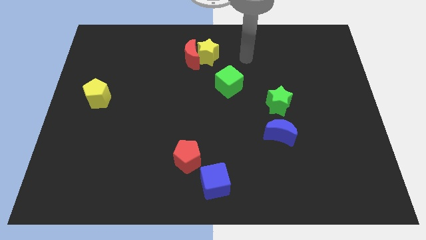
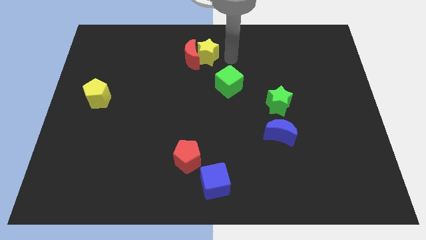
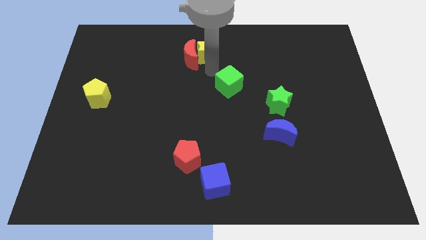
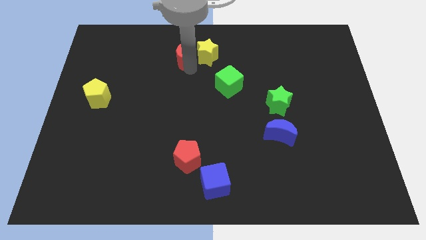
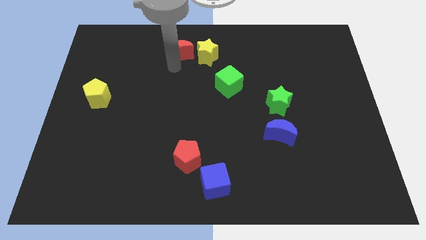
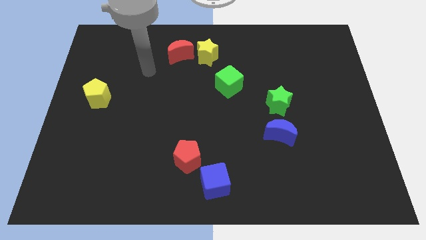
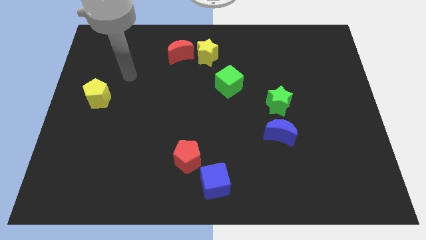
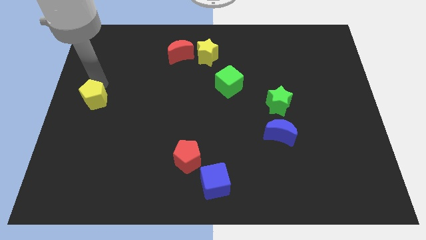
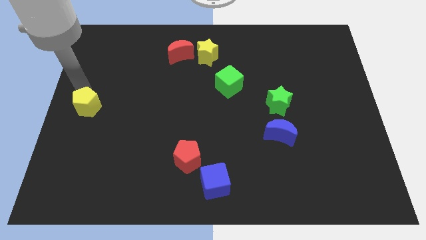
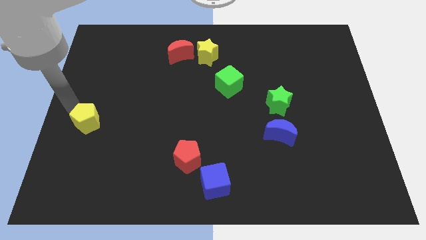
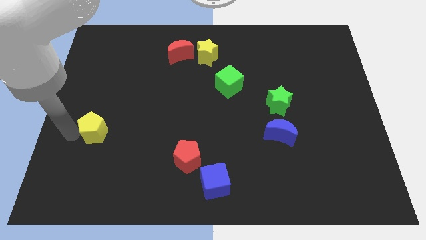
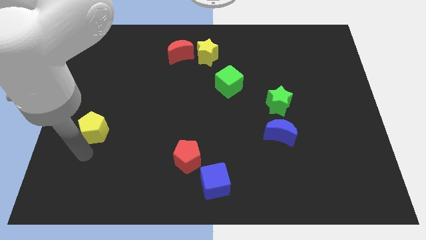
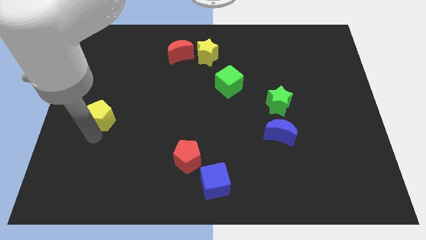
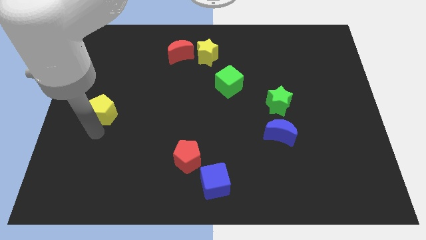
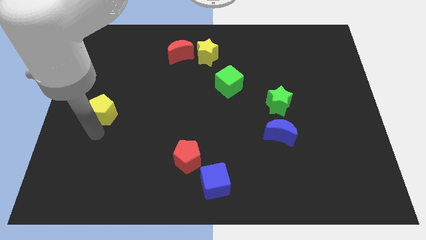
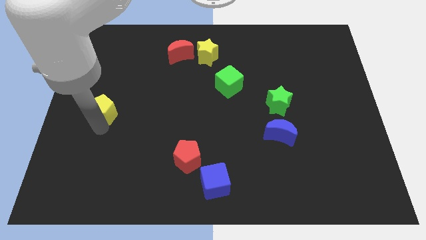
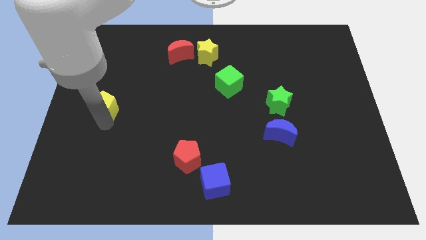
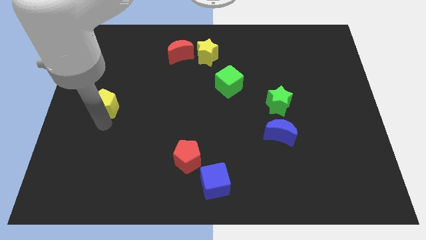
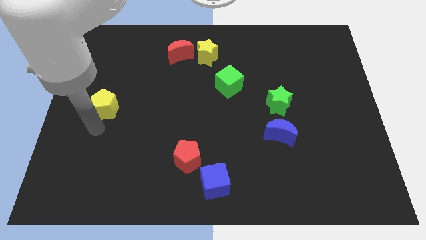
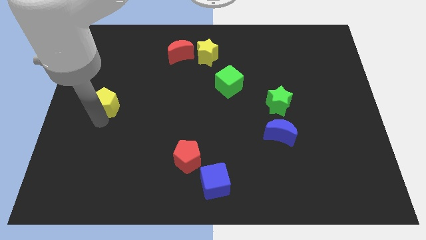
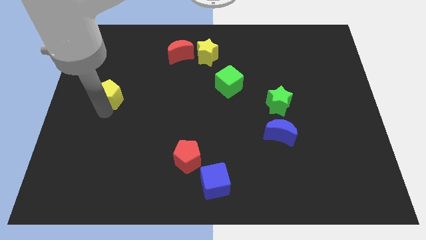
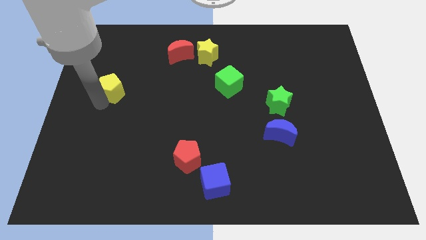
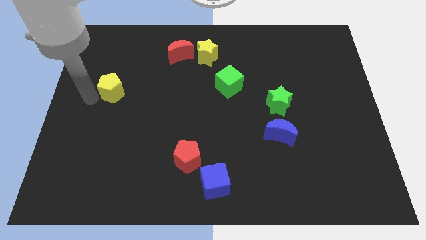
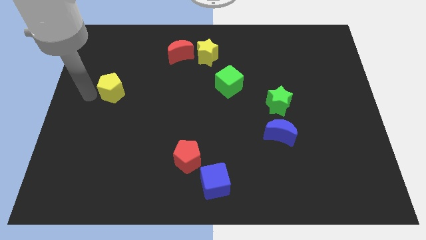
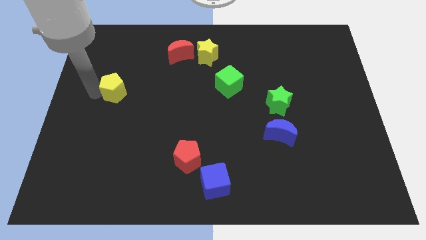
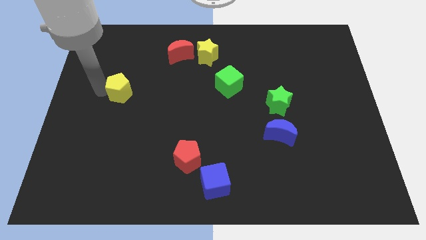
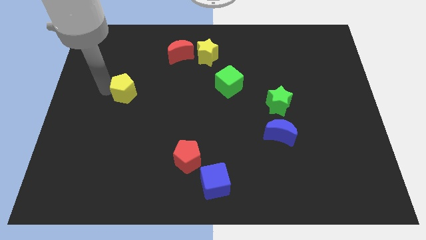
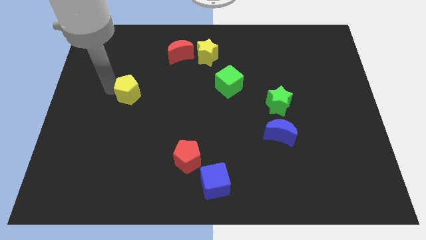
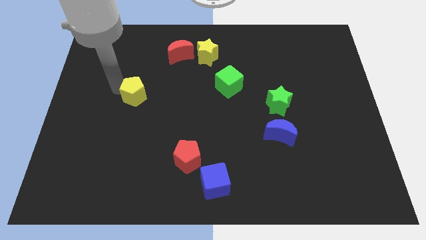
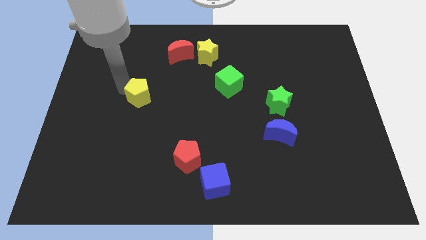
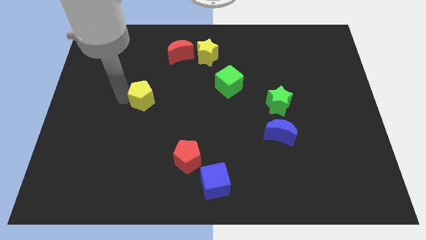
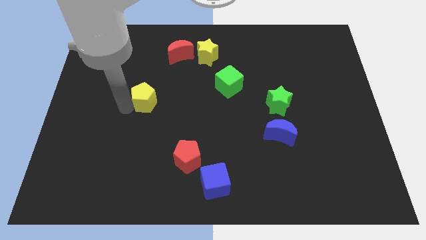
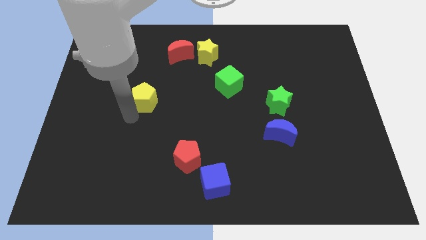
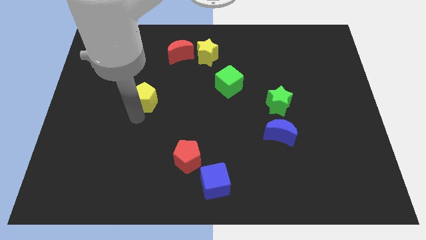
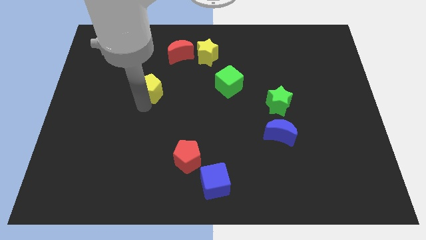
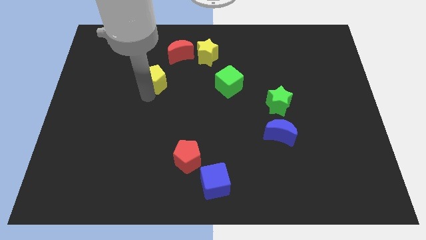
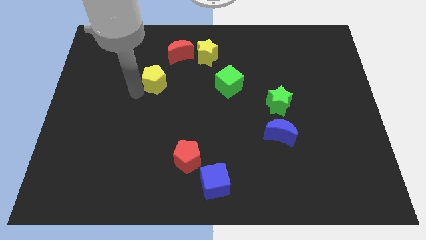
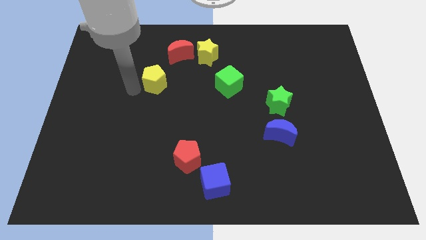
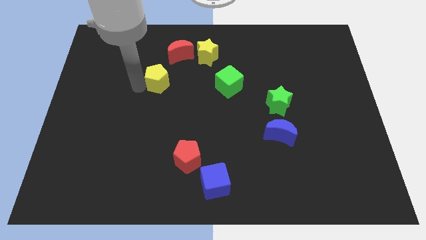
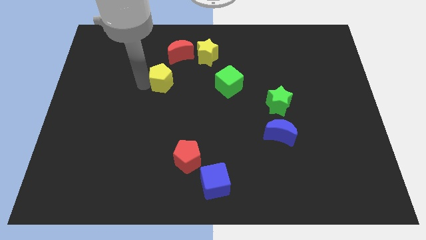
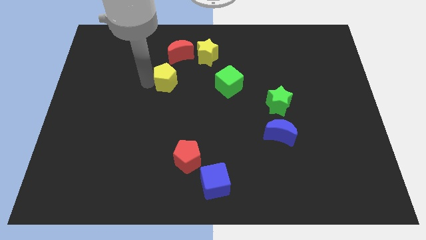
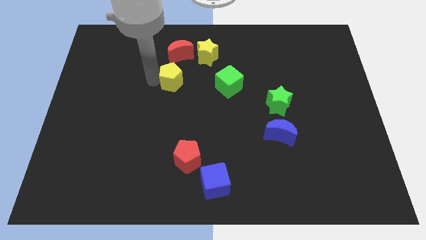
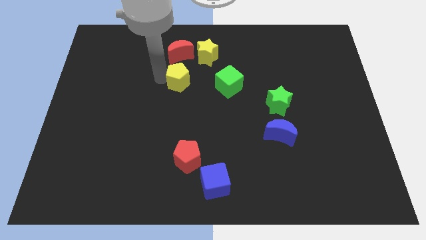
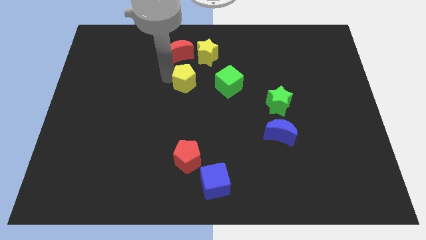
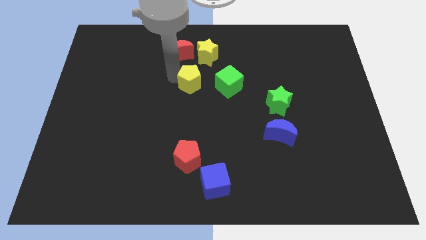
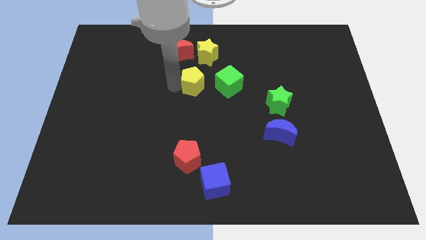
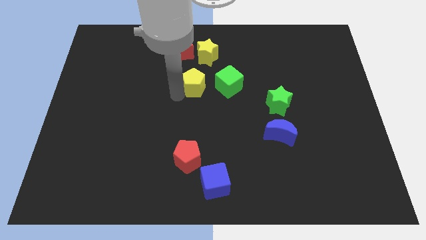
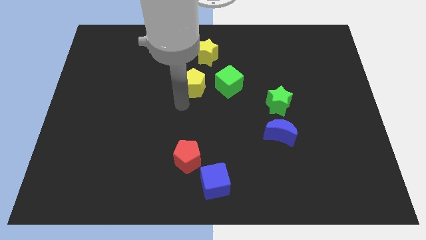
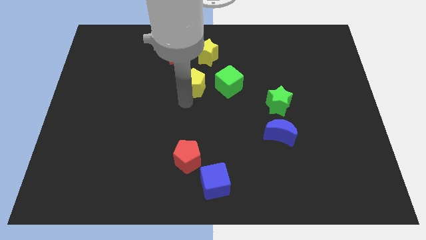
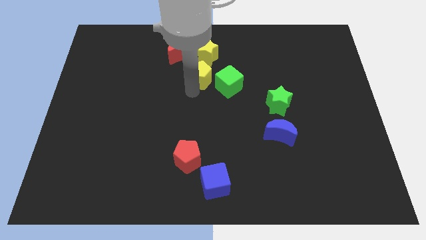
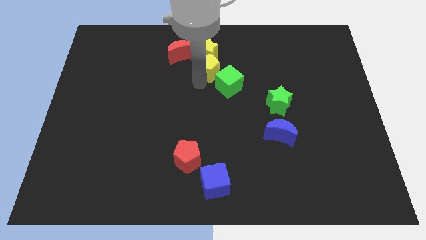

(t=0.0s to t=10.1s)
put the yellow pentagon close to the yellow star

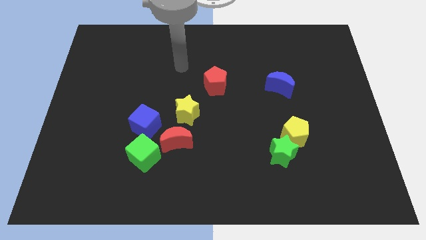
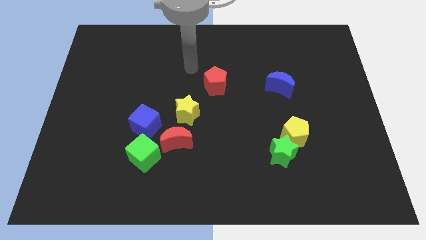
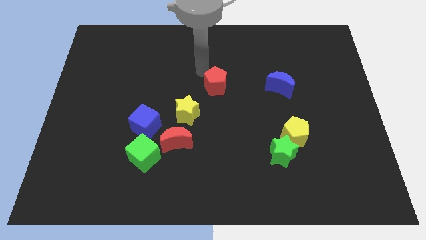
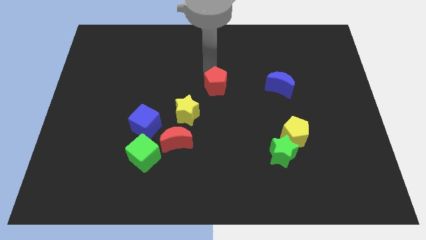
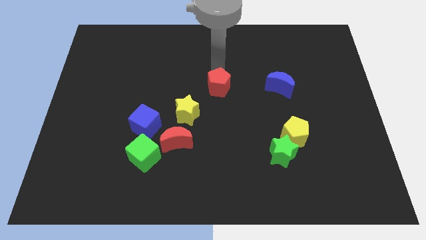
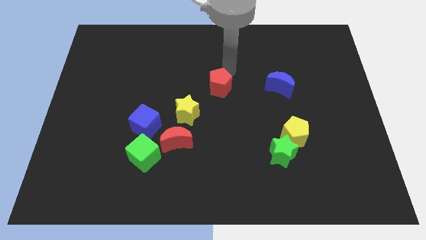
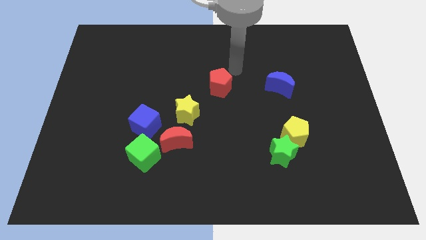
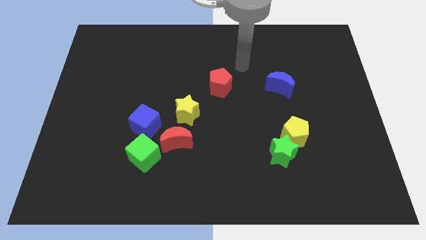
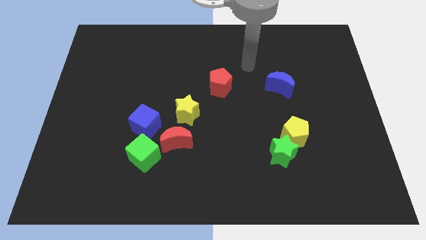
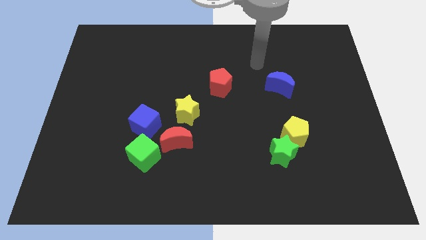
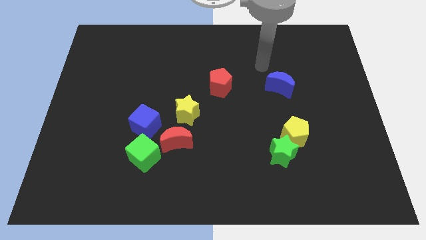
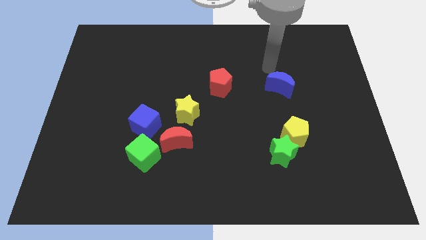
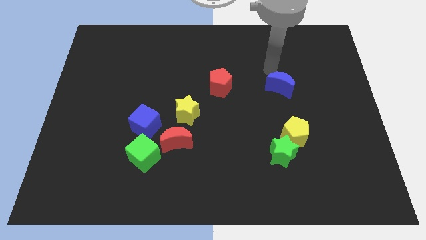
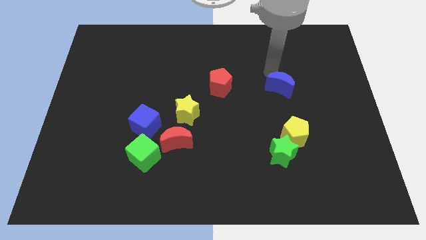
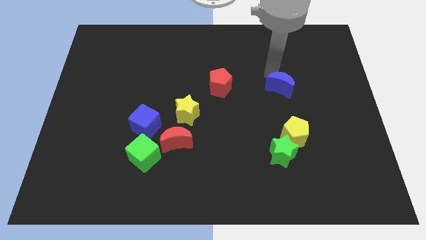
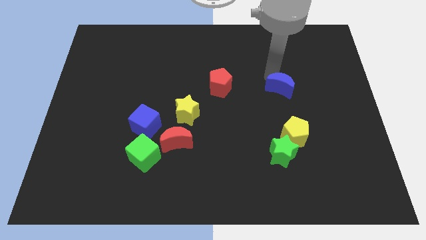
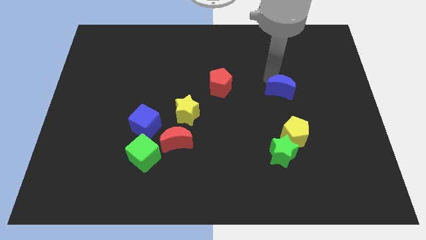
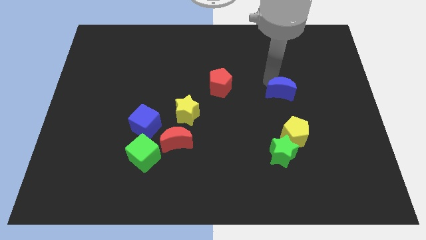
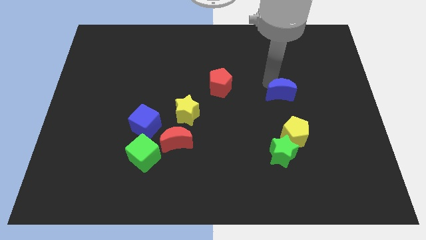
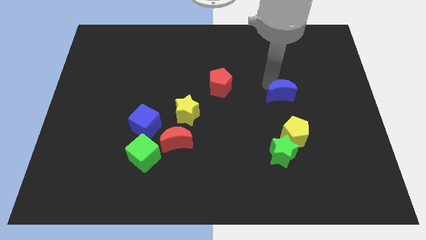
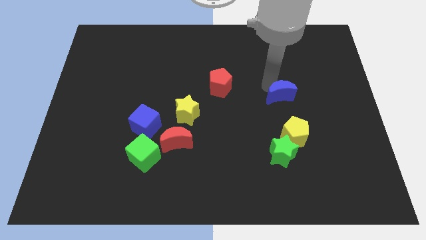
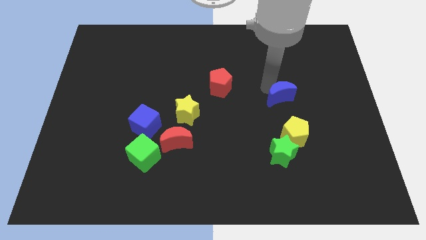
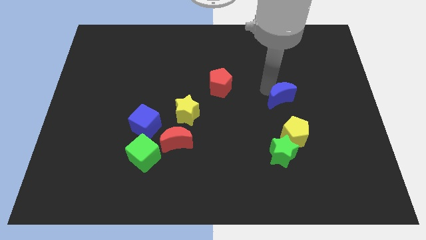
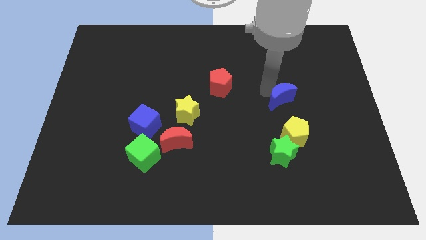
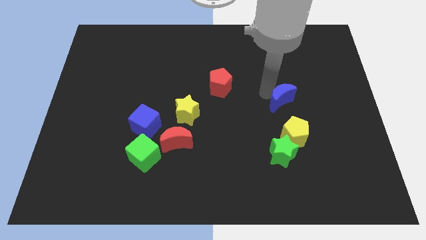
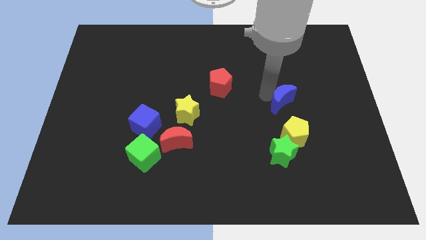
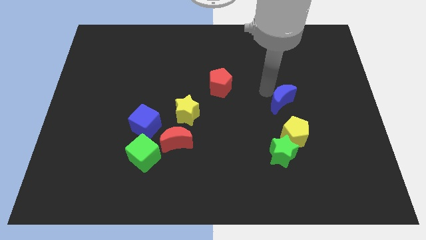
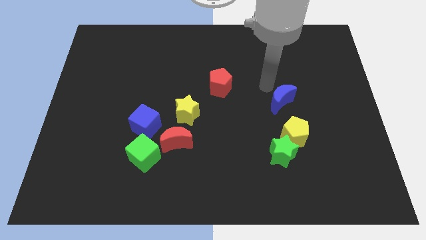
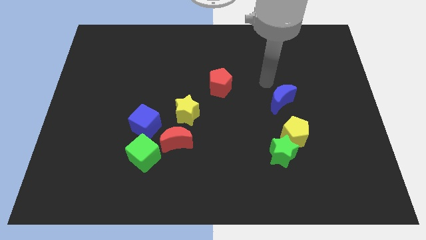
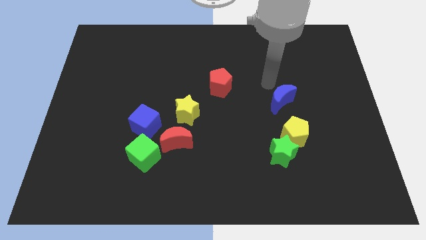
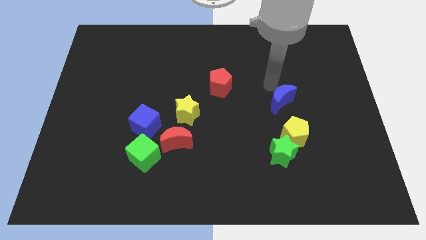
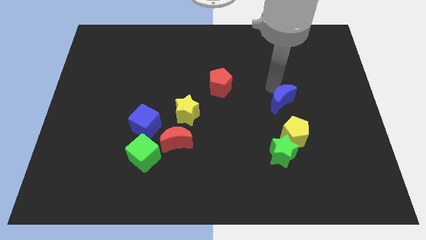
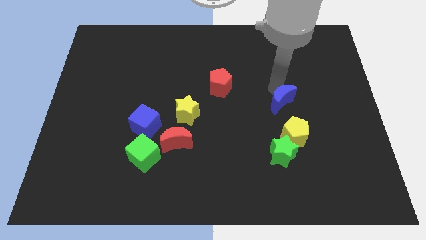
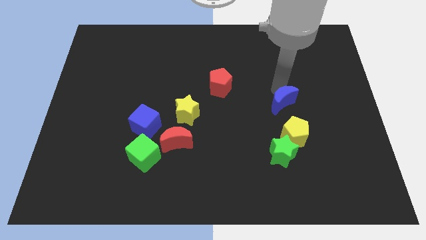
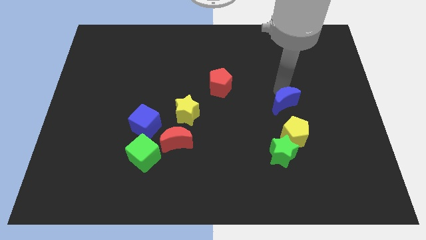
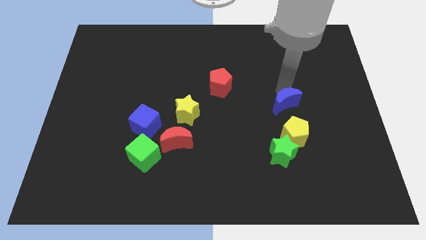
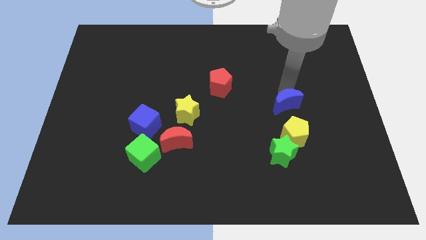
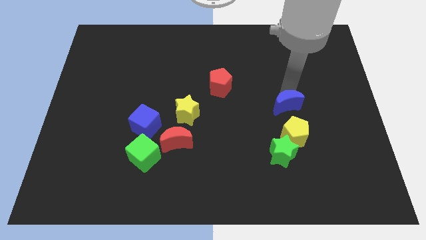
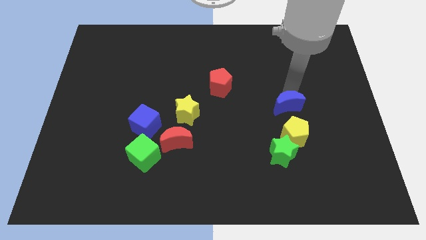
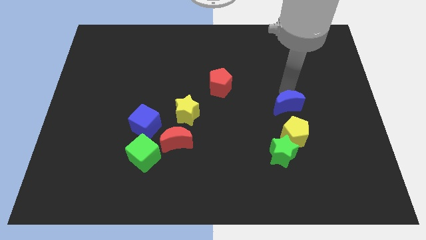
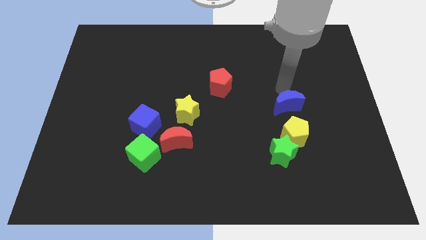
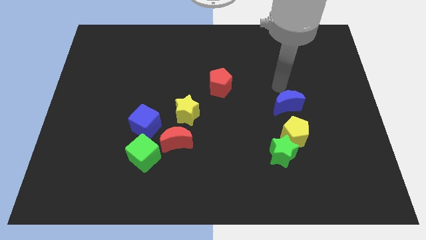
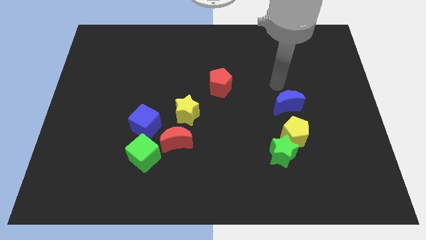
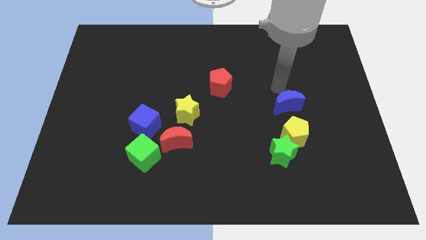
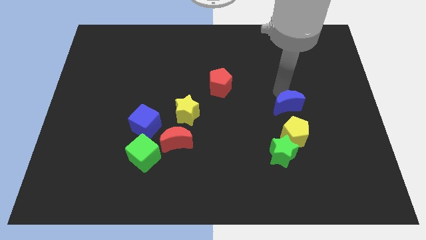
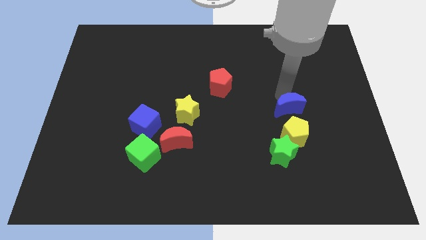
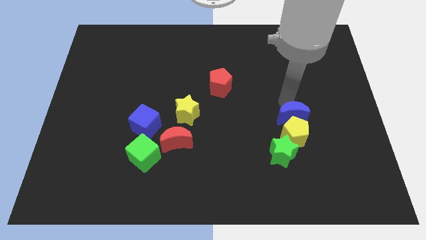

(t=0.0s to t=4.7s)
slide the blue moon close to the yellow pentagon
